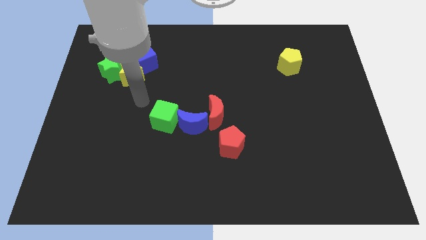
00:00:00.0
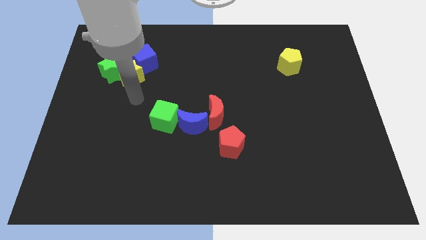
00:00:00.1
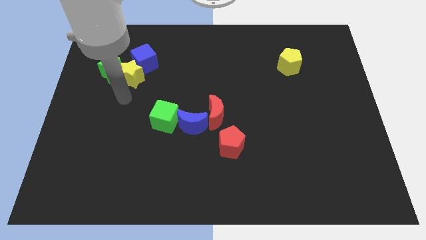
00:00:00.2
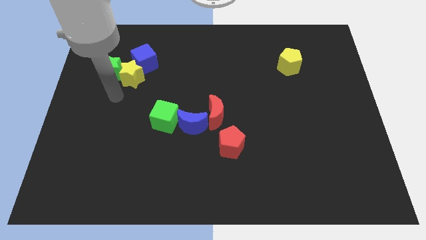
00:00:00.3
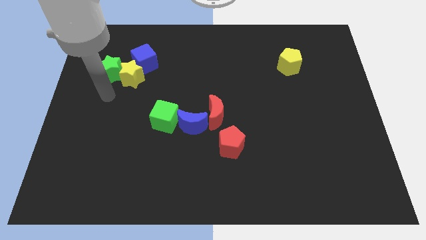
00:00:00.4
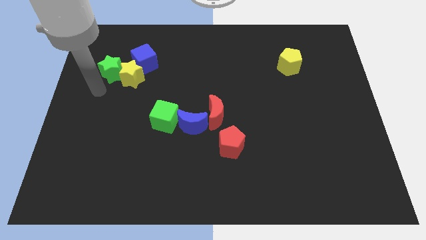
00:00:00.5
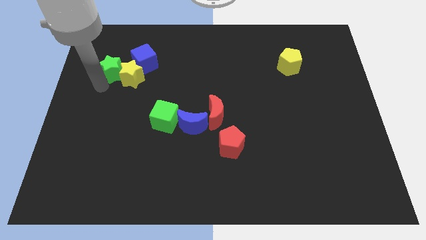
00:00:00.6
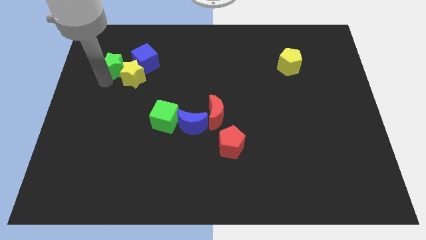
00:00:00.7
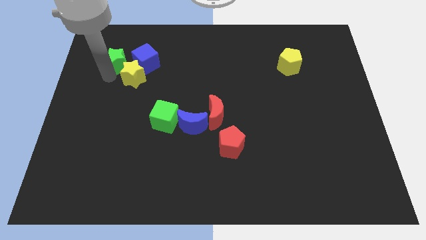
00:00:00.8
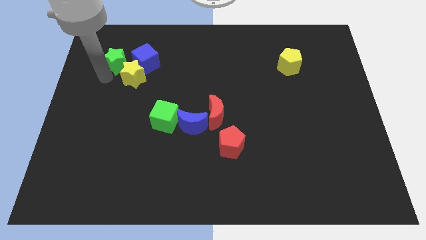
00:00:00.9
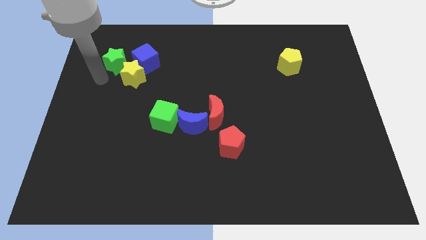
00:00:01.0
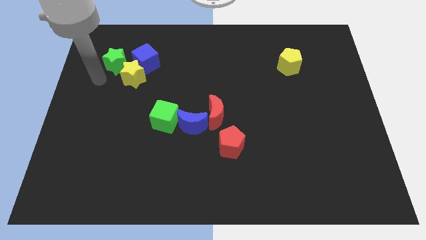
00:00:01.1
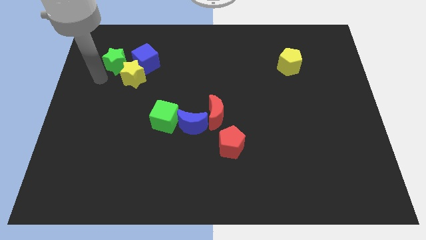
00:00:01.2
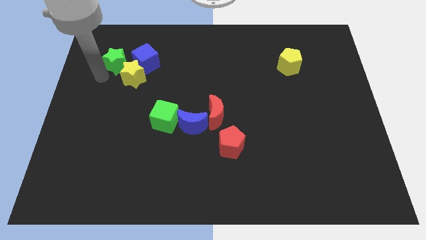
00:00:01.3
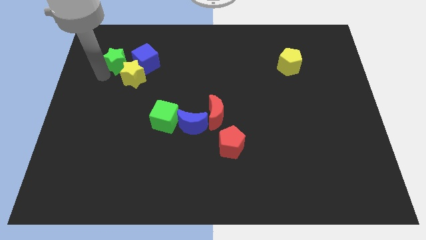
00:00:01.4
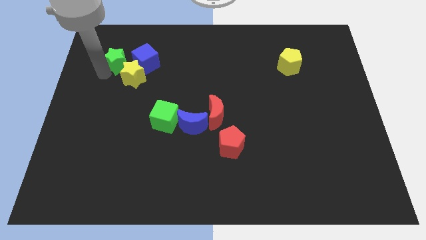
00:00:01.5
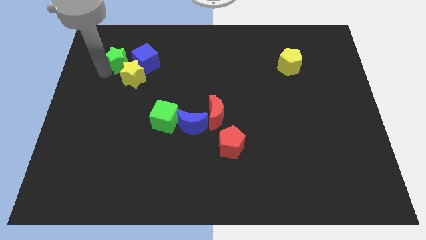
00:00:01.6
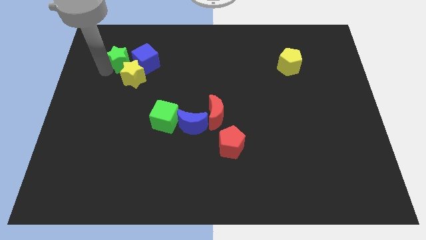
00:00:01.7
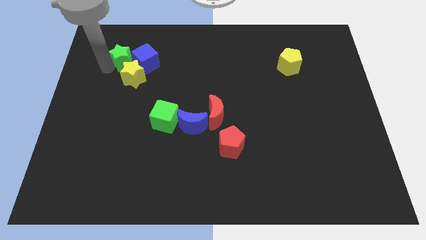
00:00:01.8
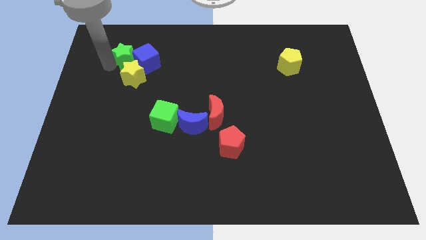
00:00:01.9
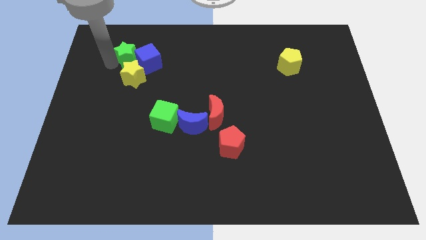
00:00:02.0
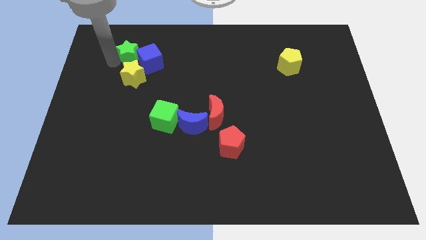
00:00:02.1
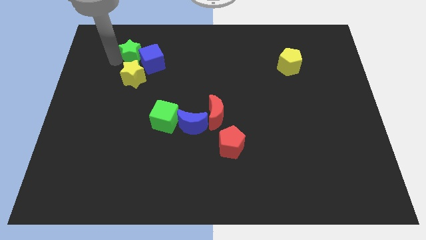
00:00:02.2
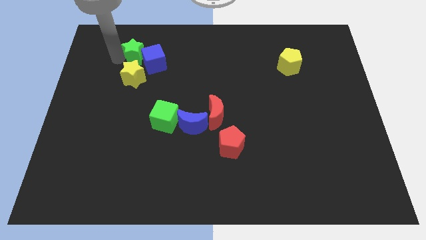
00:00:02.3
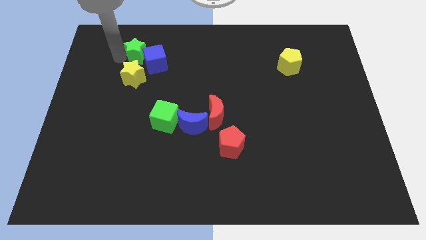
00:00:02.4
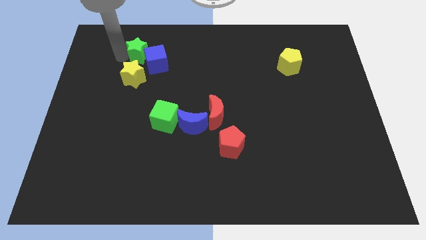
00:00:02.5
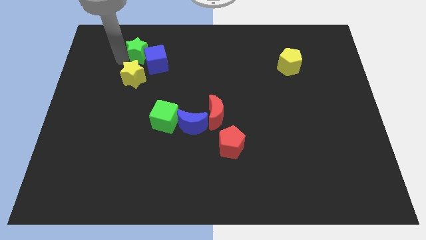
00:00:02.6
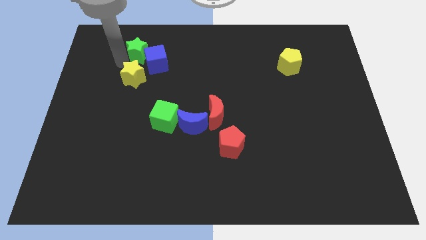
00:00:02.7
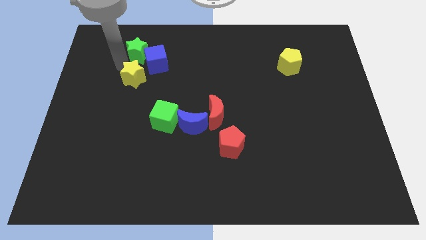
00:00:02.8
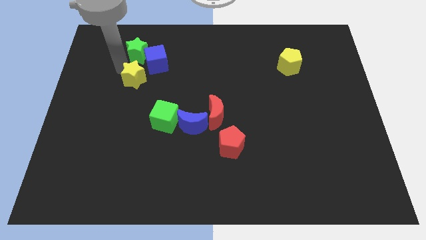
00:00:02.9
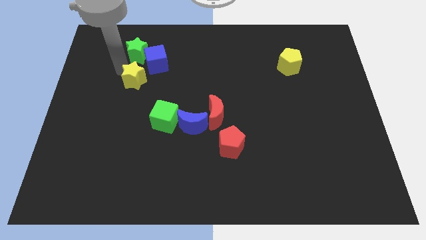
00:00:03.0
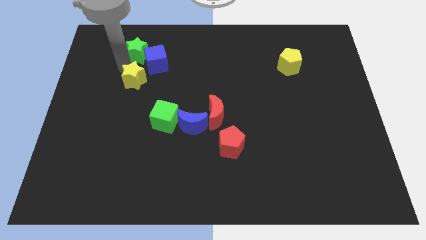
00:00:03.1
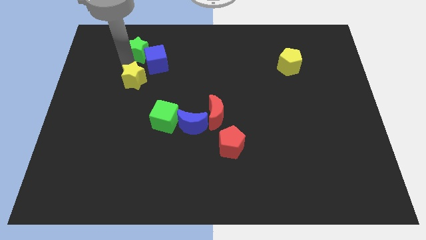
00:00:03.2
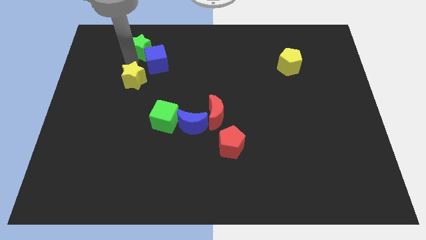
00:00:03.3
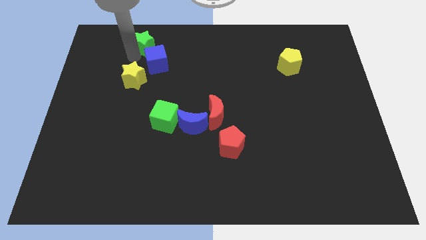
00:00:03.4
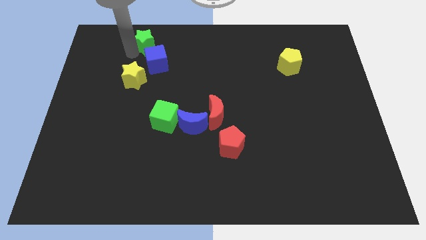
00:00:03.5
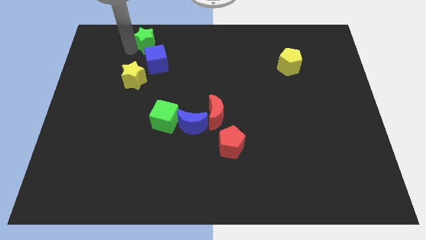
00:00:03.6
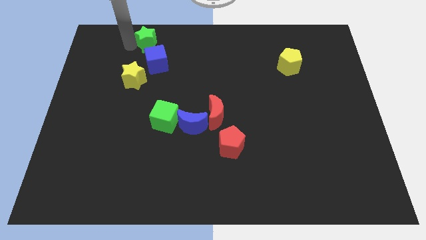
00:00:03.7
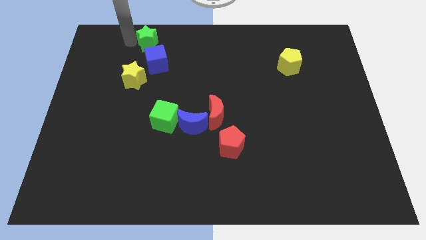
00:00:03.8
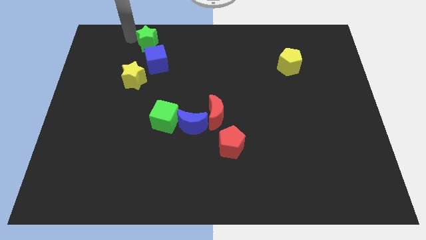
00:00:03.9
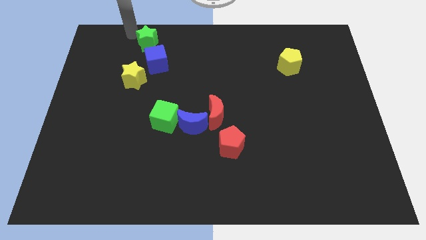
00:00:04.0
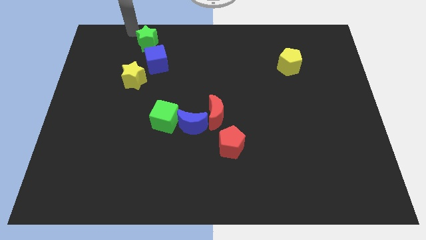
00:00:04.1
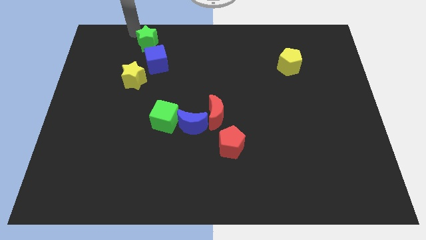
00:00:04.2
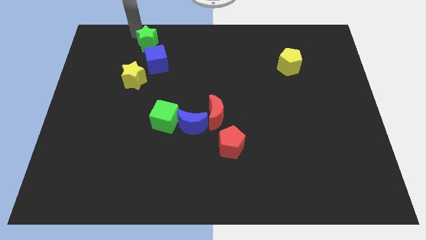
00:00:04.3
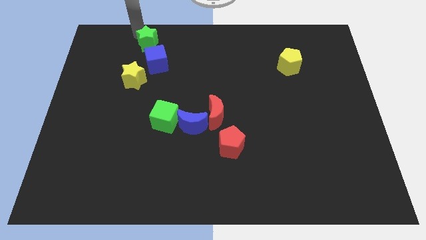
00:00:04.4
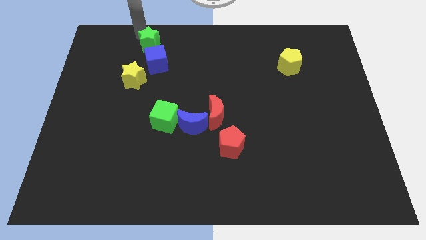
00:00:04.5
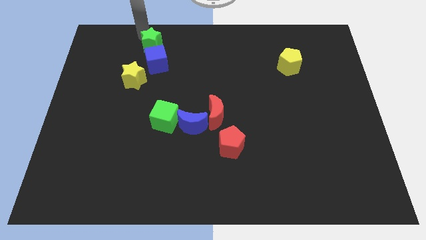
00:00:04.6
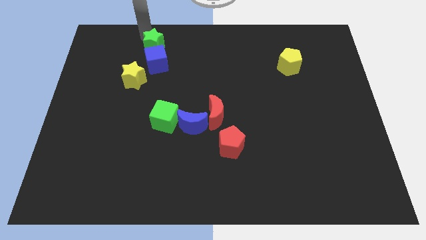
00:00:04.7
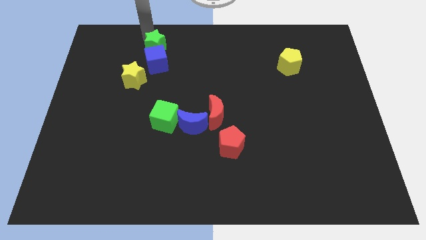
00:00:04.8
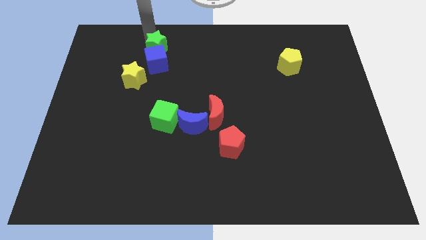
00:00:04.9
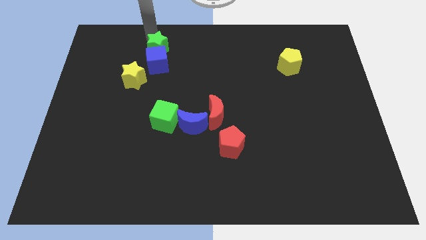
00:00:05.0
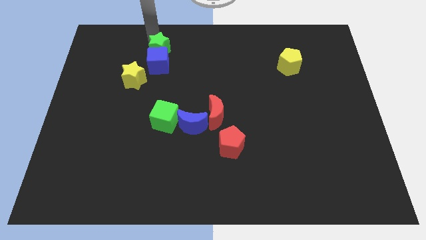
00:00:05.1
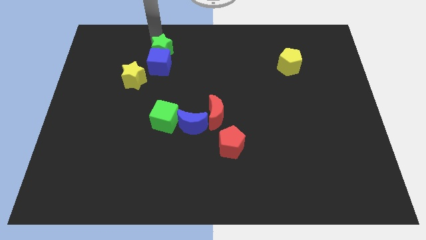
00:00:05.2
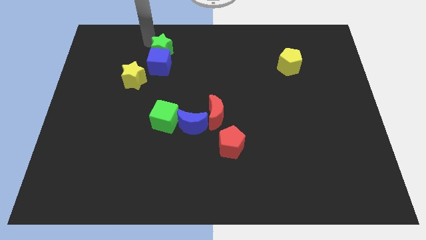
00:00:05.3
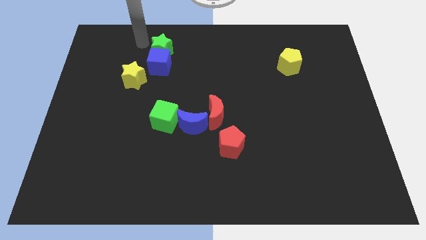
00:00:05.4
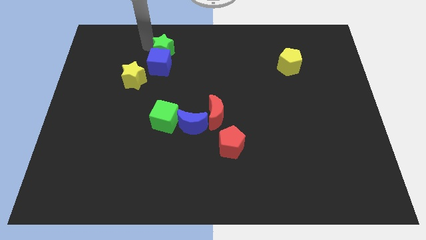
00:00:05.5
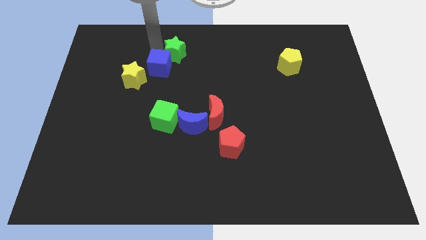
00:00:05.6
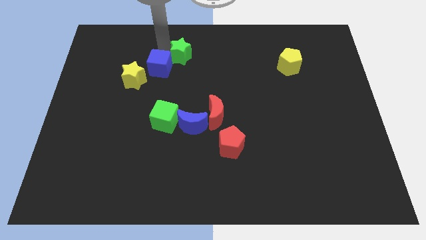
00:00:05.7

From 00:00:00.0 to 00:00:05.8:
put the green star to the right of the blue cube

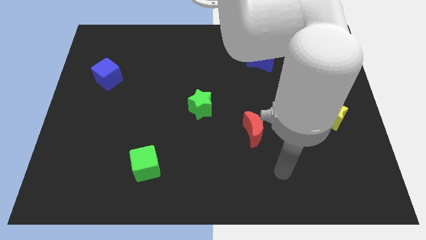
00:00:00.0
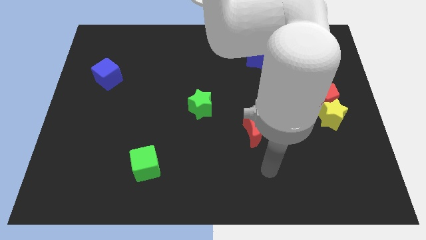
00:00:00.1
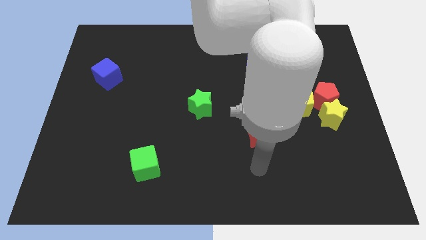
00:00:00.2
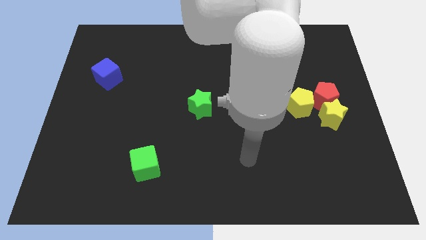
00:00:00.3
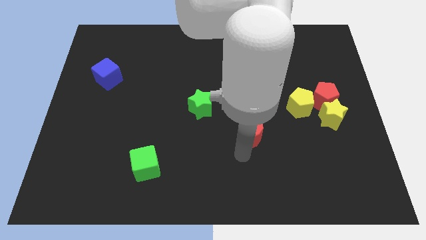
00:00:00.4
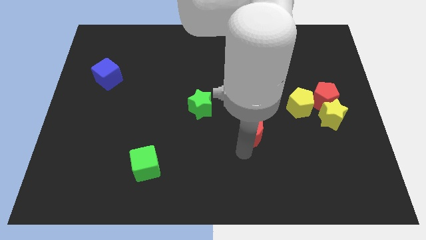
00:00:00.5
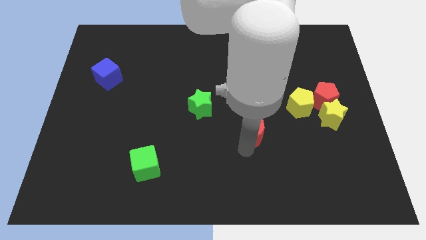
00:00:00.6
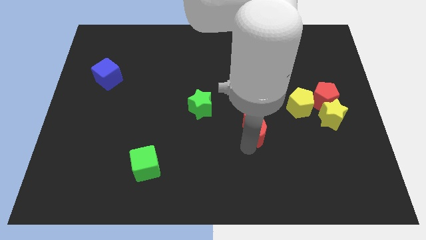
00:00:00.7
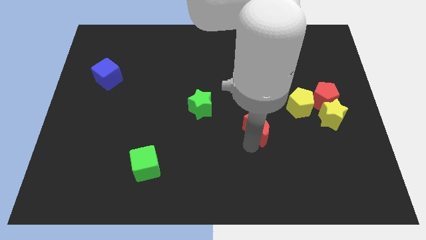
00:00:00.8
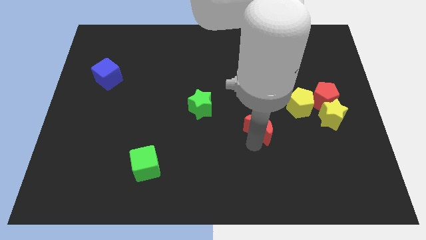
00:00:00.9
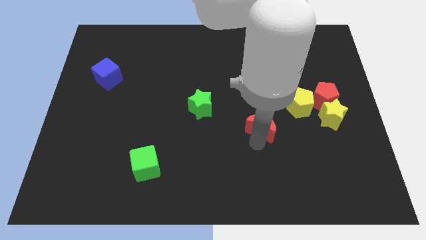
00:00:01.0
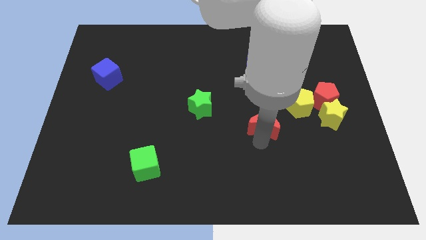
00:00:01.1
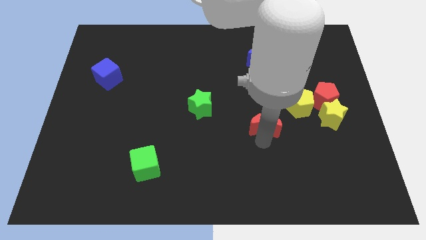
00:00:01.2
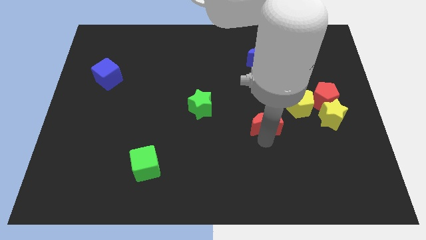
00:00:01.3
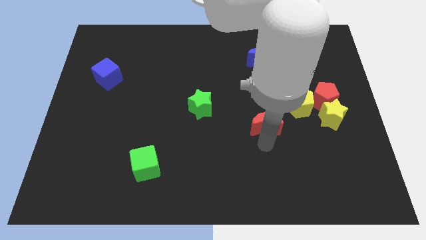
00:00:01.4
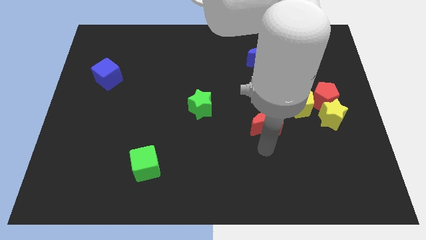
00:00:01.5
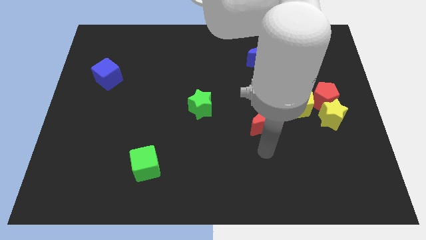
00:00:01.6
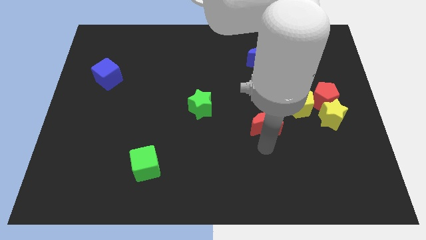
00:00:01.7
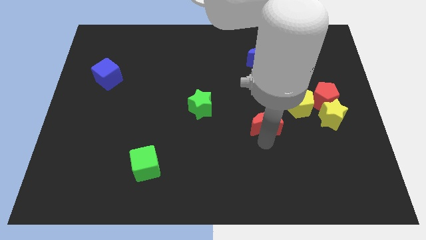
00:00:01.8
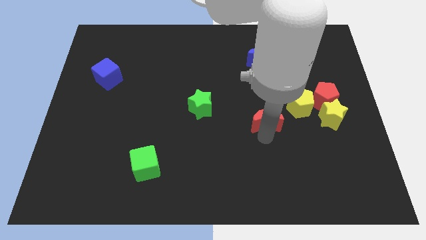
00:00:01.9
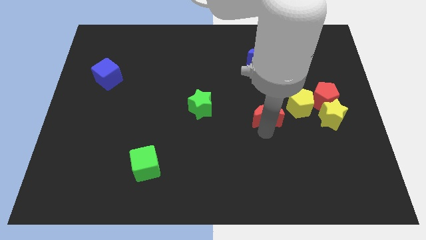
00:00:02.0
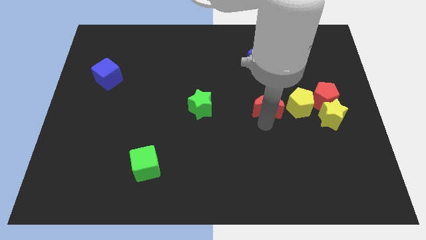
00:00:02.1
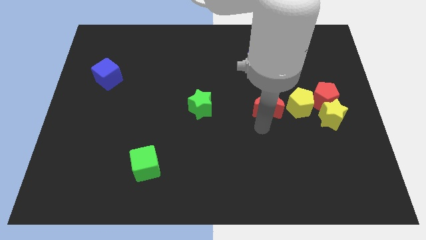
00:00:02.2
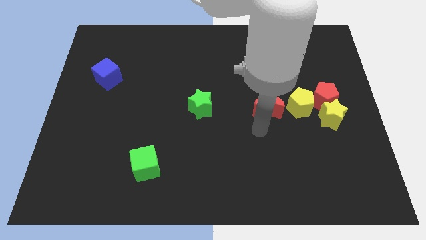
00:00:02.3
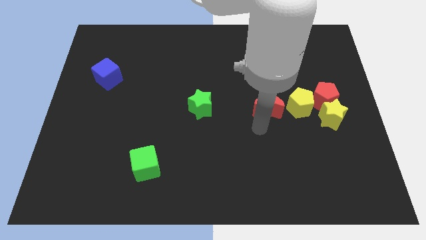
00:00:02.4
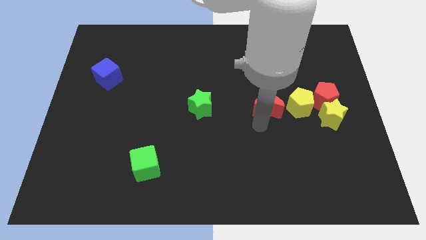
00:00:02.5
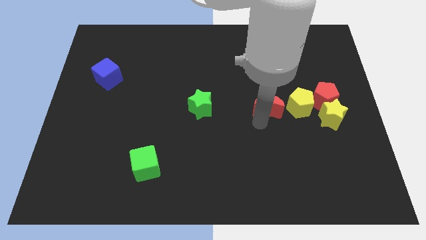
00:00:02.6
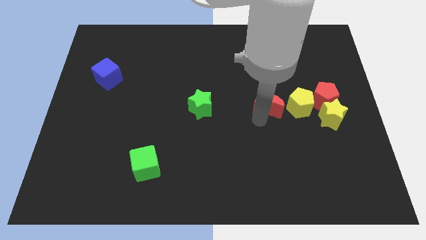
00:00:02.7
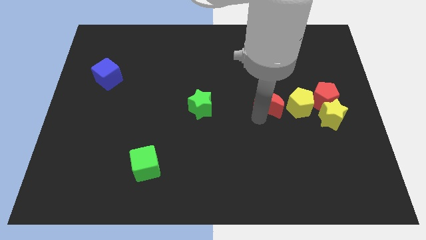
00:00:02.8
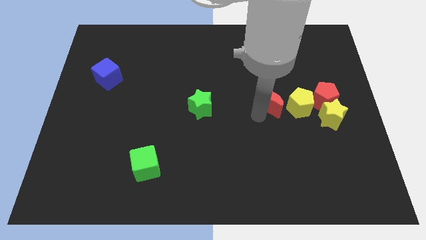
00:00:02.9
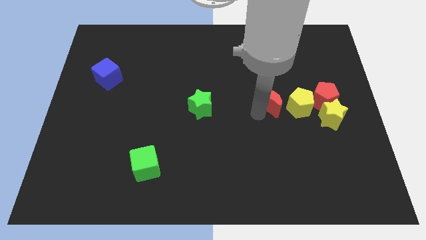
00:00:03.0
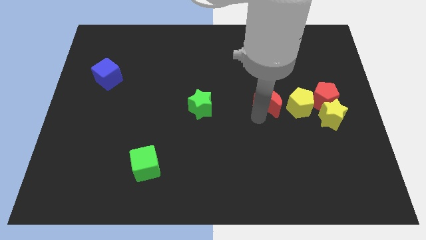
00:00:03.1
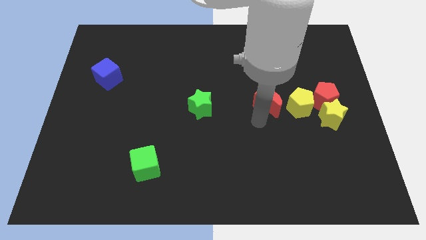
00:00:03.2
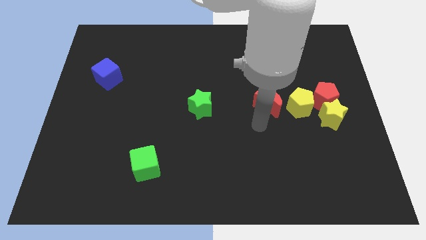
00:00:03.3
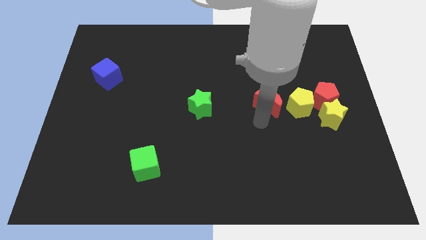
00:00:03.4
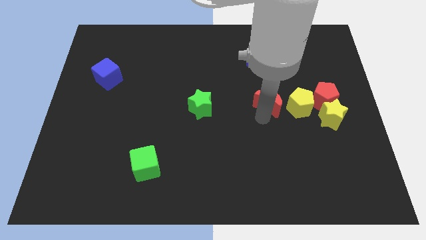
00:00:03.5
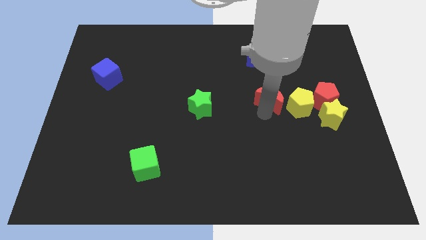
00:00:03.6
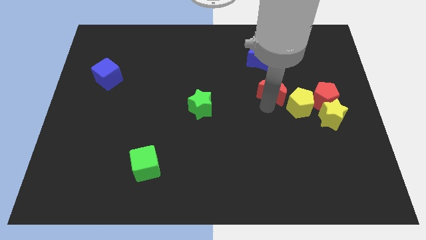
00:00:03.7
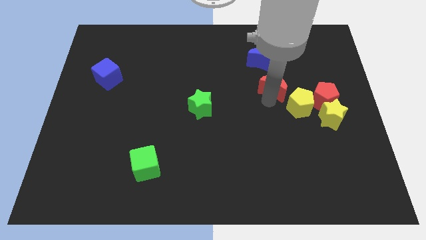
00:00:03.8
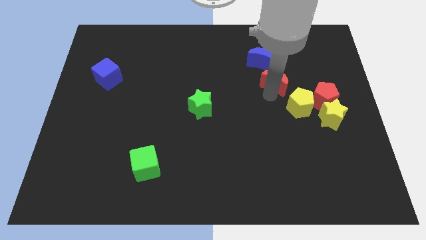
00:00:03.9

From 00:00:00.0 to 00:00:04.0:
push the red moon to the bottom right side of the blue moon
